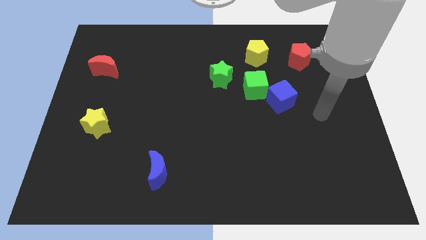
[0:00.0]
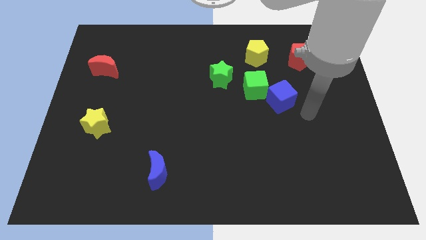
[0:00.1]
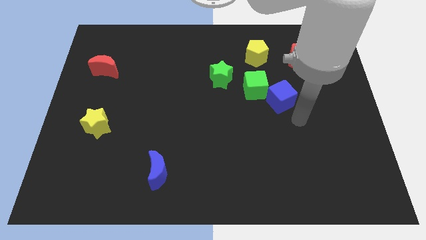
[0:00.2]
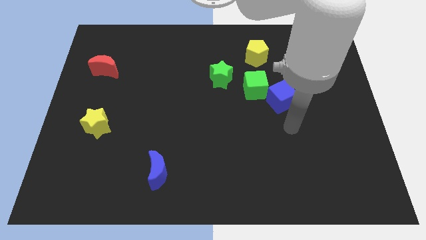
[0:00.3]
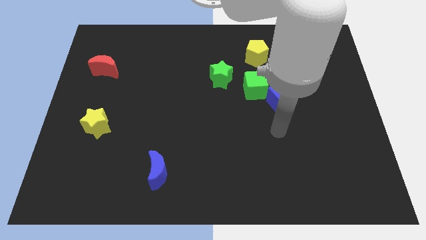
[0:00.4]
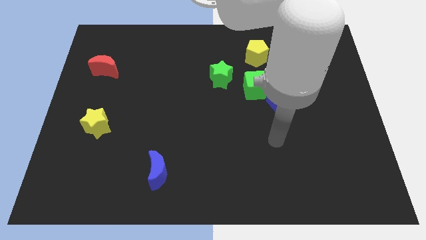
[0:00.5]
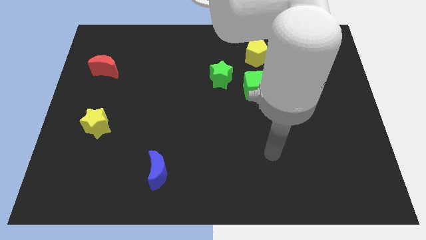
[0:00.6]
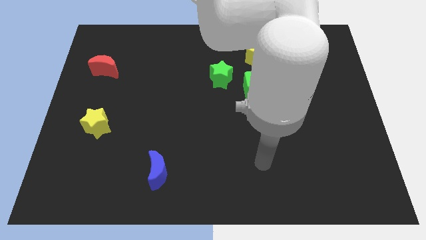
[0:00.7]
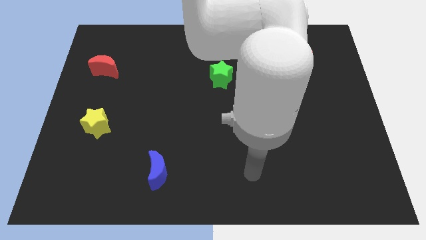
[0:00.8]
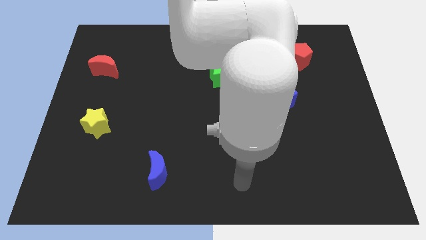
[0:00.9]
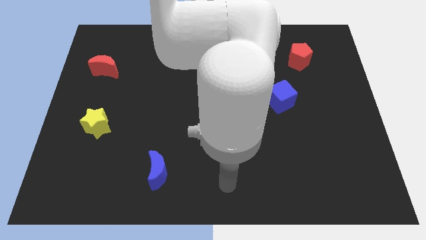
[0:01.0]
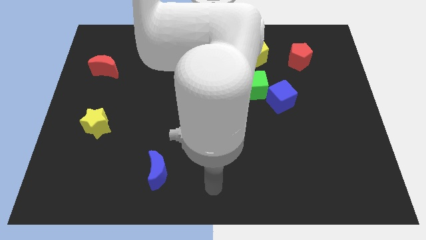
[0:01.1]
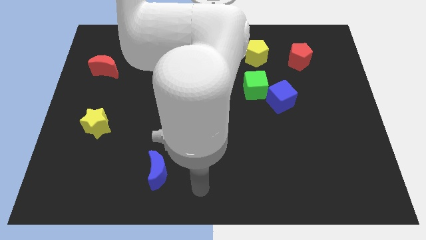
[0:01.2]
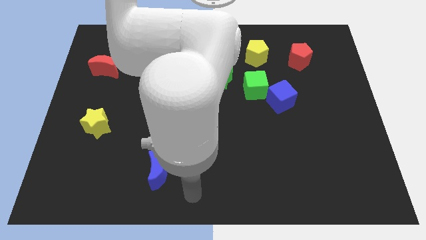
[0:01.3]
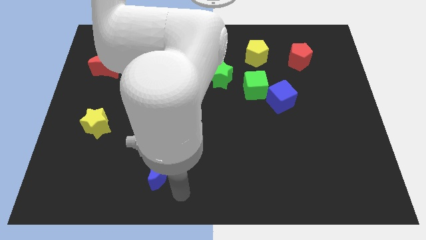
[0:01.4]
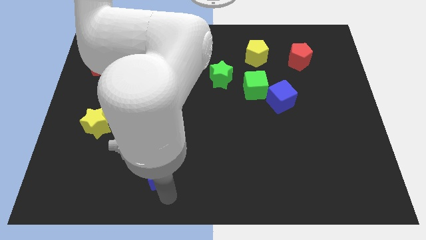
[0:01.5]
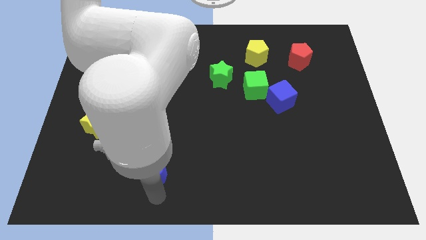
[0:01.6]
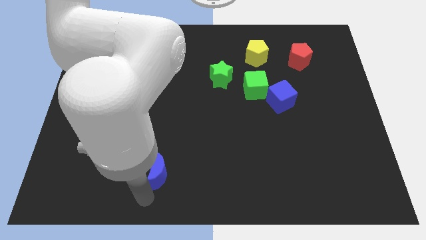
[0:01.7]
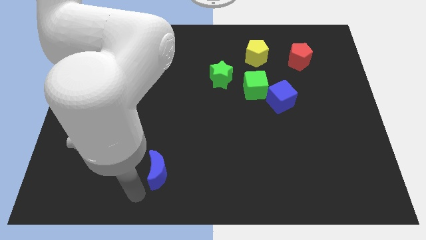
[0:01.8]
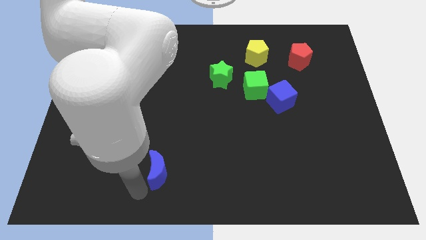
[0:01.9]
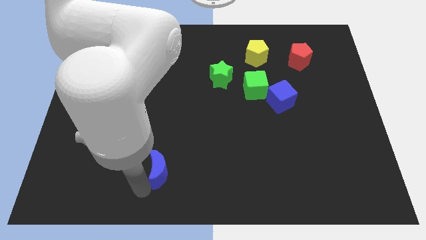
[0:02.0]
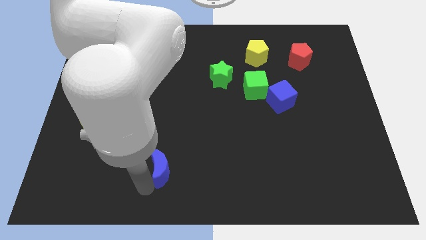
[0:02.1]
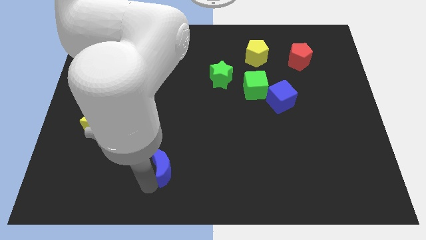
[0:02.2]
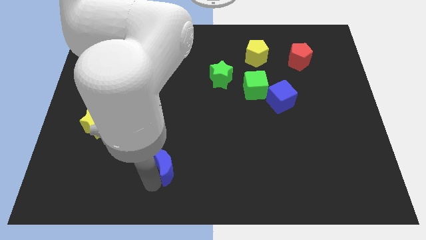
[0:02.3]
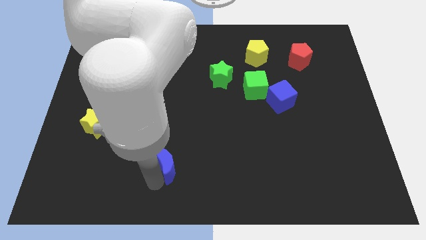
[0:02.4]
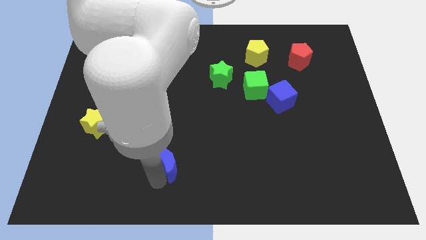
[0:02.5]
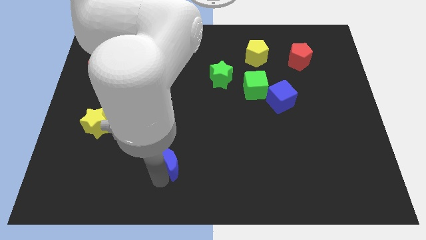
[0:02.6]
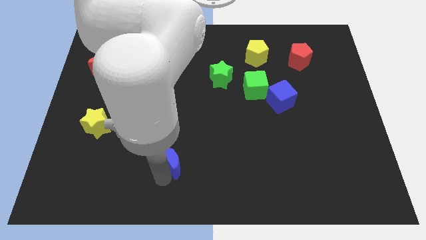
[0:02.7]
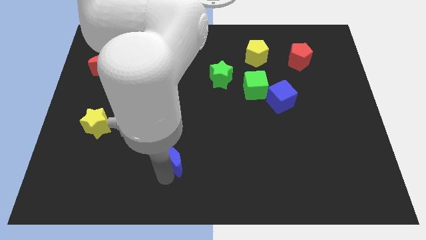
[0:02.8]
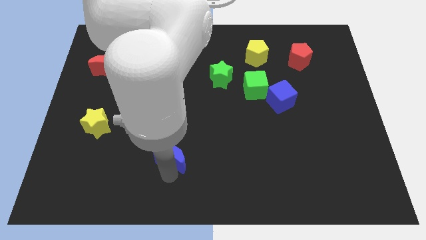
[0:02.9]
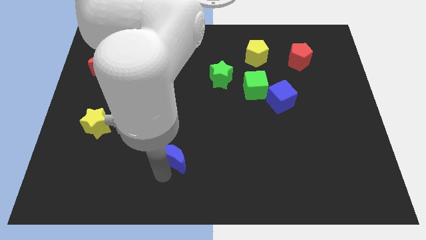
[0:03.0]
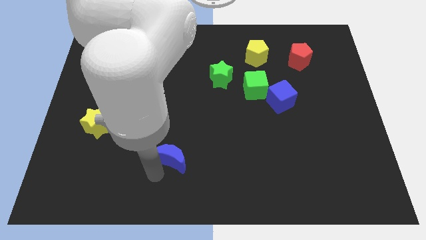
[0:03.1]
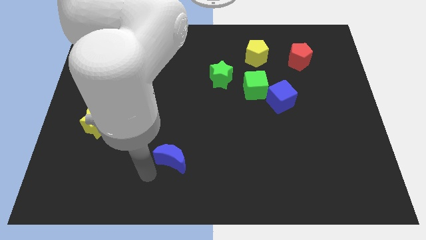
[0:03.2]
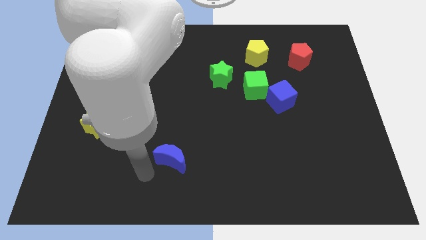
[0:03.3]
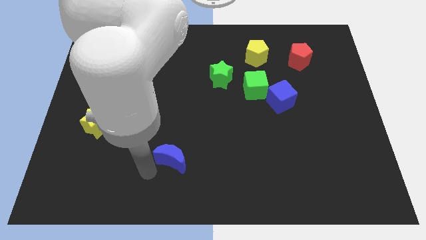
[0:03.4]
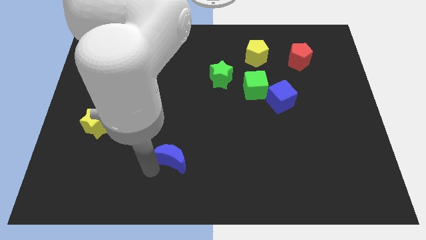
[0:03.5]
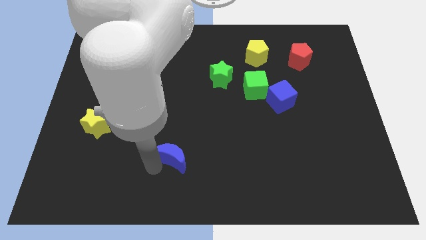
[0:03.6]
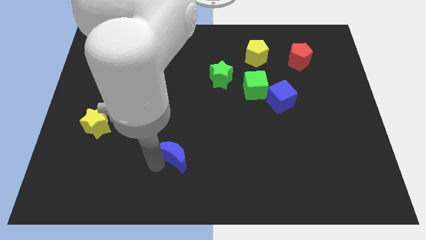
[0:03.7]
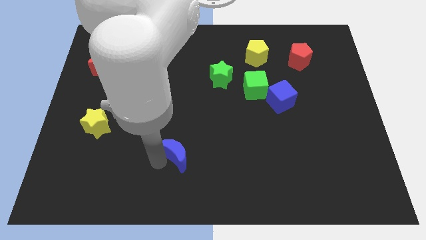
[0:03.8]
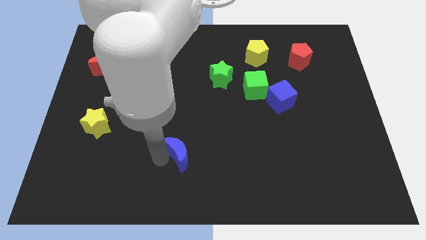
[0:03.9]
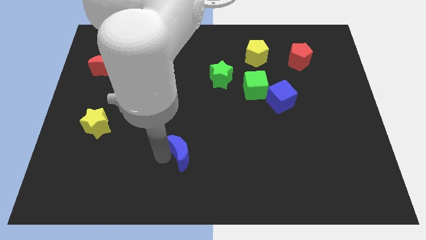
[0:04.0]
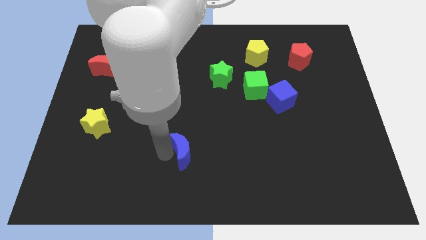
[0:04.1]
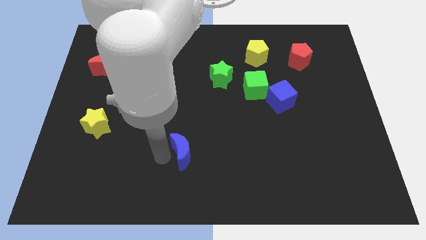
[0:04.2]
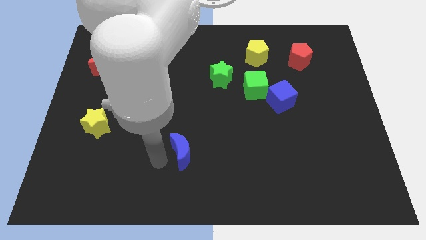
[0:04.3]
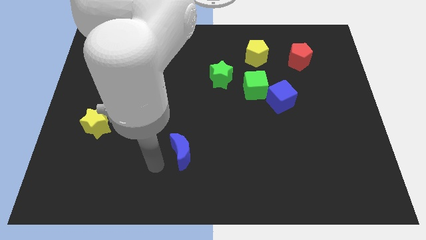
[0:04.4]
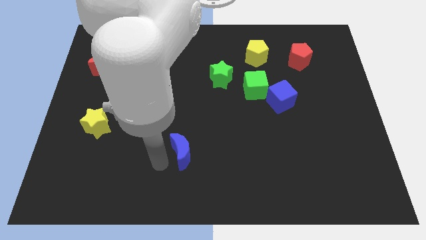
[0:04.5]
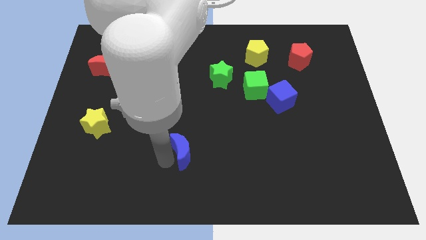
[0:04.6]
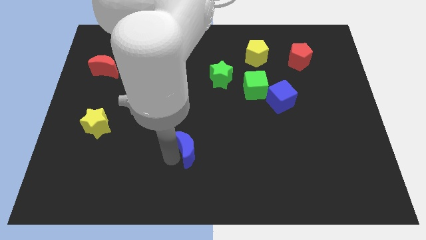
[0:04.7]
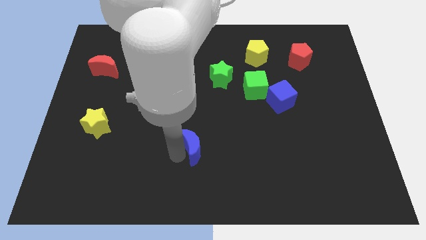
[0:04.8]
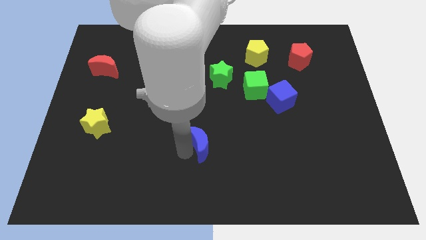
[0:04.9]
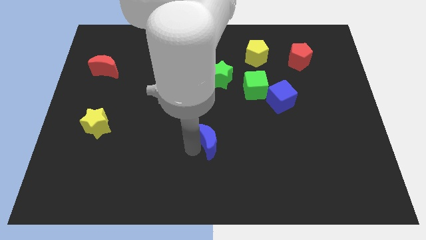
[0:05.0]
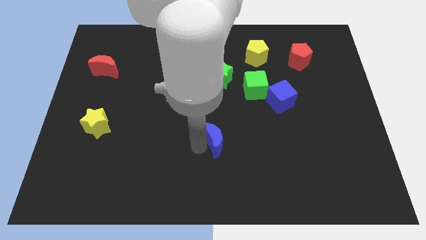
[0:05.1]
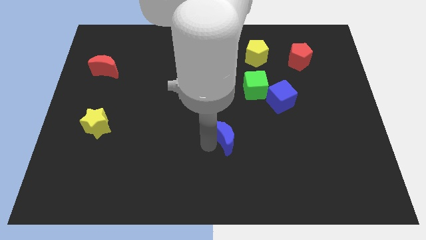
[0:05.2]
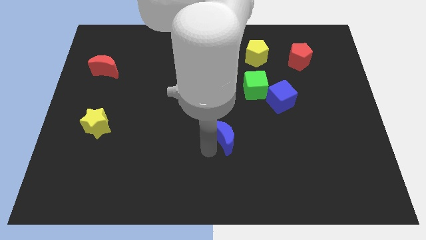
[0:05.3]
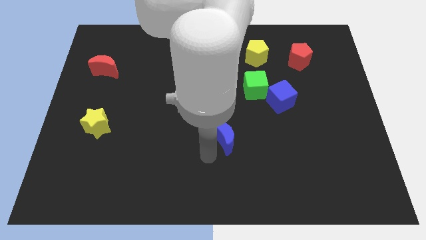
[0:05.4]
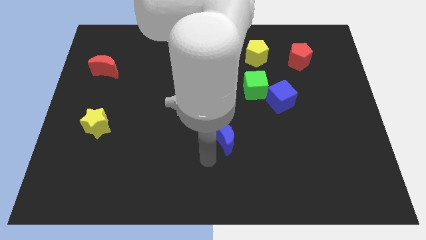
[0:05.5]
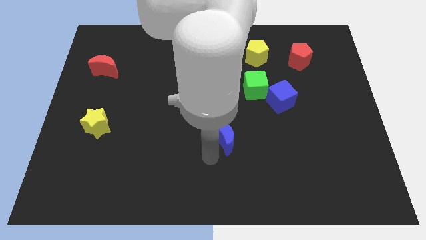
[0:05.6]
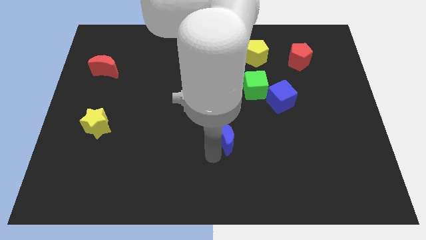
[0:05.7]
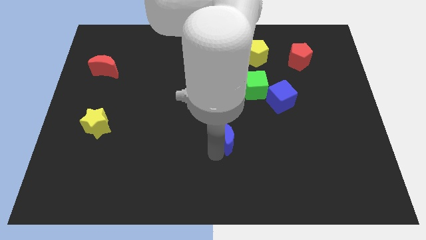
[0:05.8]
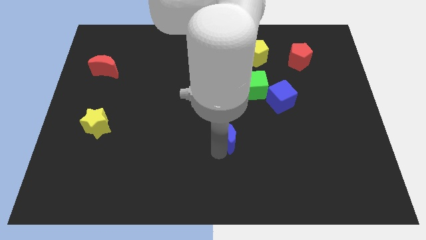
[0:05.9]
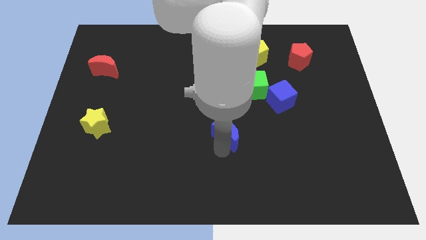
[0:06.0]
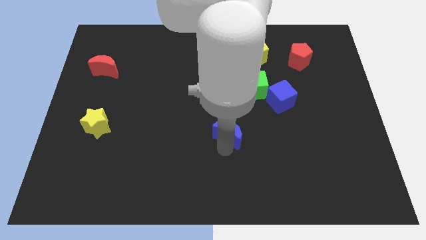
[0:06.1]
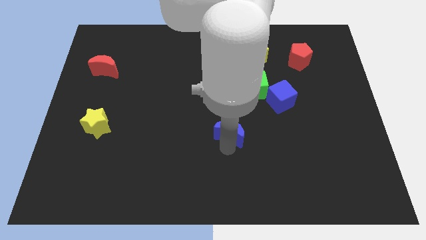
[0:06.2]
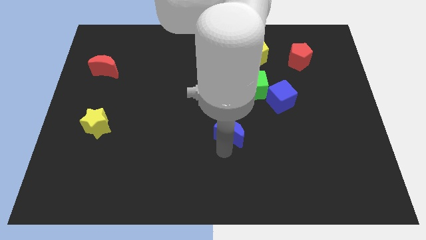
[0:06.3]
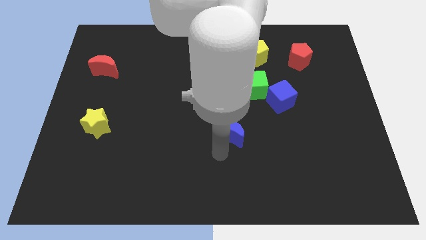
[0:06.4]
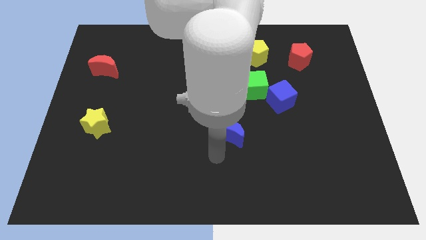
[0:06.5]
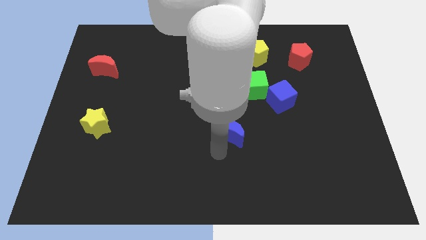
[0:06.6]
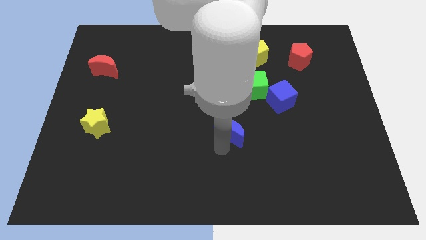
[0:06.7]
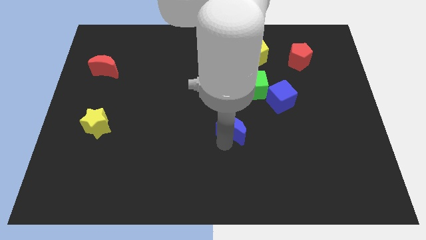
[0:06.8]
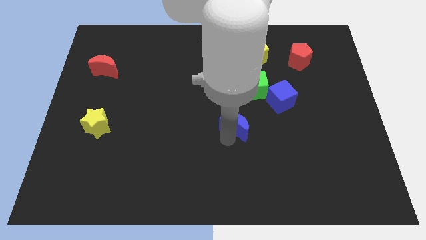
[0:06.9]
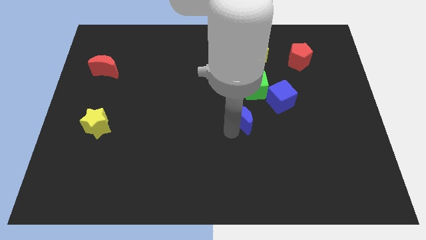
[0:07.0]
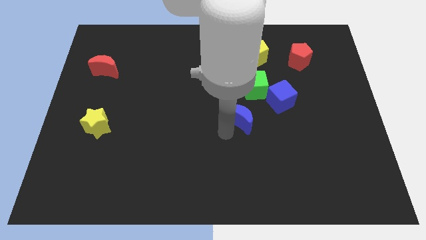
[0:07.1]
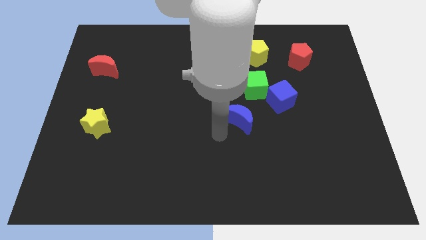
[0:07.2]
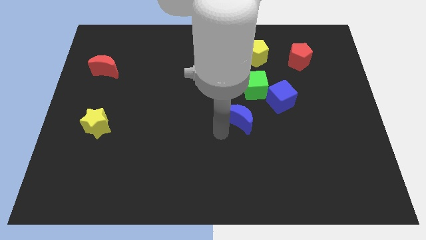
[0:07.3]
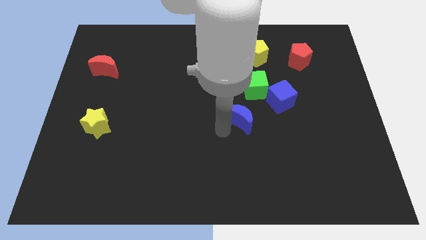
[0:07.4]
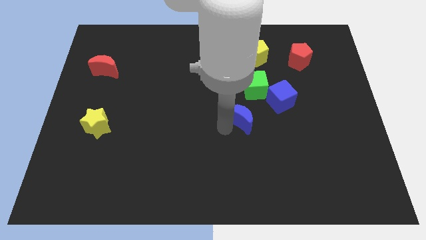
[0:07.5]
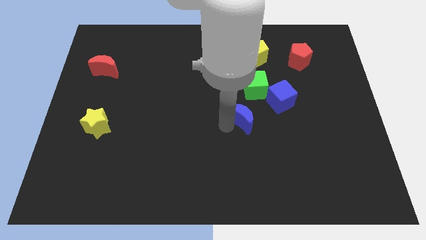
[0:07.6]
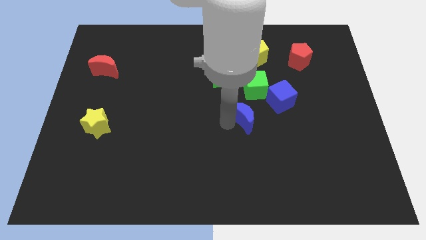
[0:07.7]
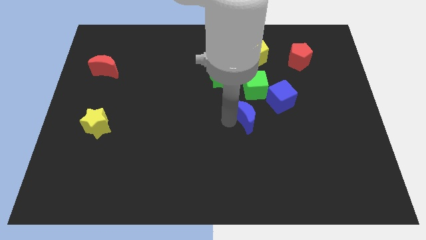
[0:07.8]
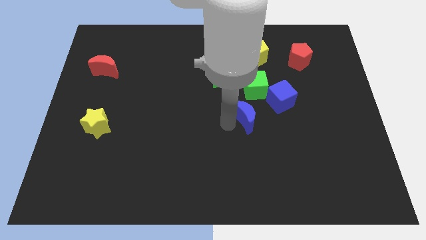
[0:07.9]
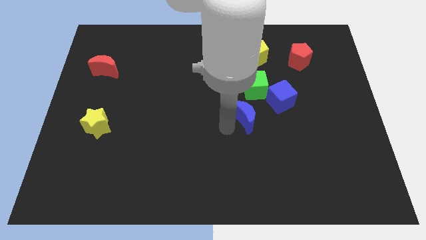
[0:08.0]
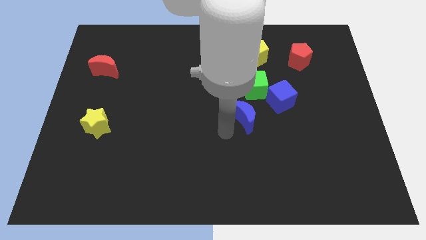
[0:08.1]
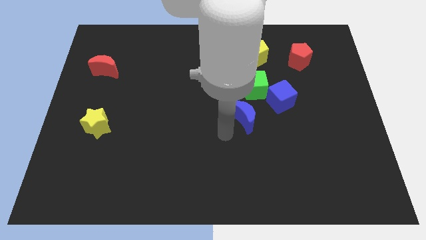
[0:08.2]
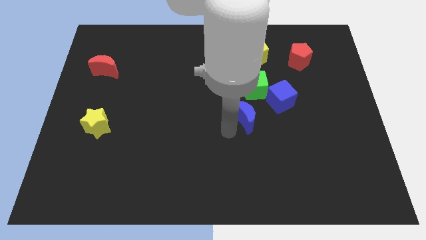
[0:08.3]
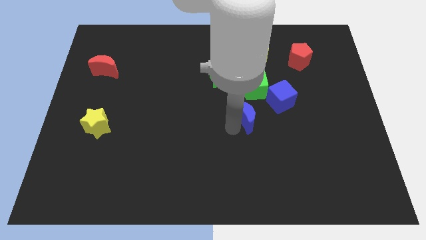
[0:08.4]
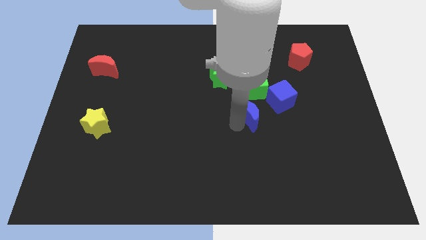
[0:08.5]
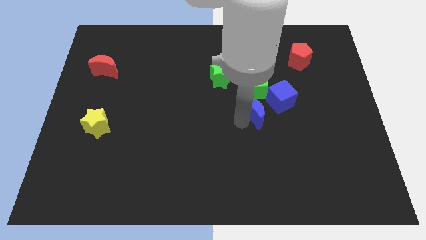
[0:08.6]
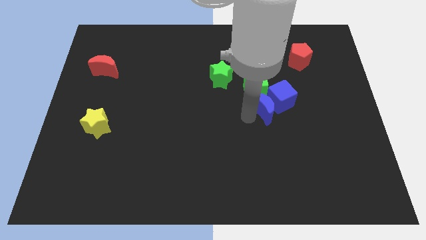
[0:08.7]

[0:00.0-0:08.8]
slide the blue moon next to the blue cube
